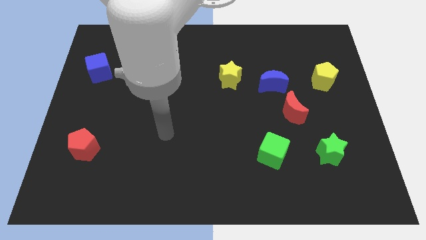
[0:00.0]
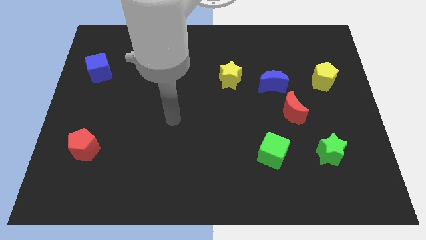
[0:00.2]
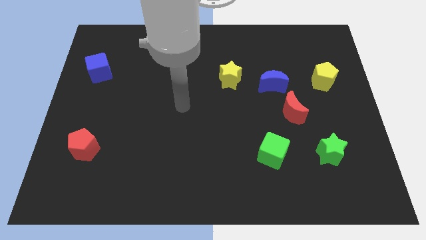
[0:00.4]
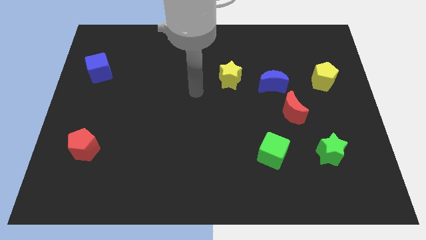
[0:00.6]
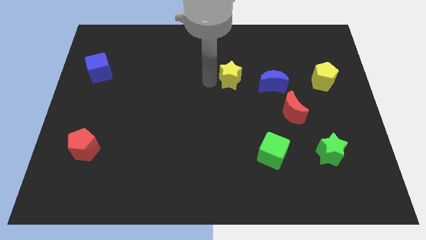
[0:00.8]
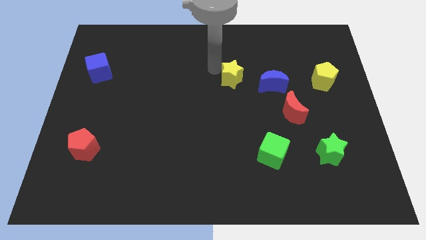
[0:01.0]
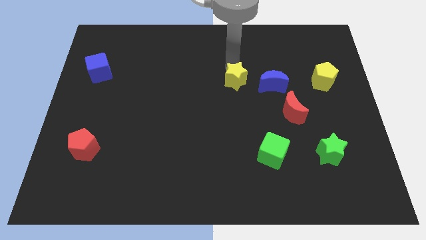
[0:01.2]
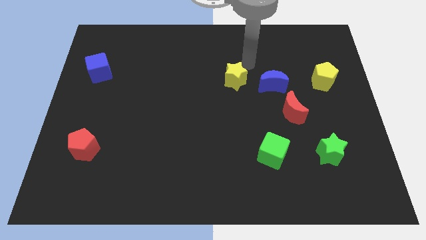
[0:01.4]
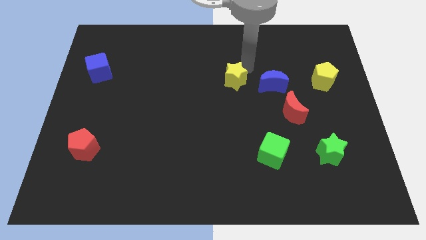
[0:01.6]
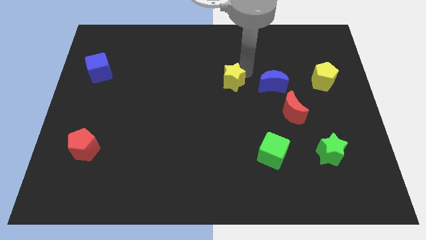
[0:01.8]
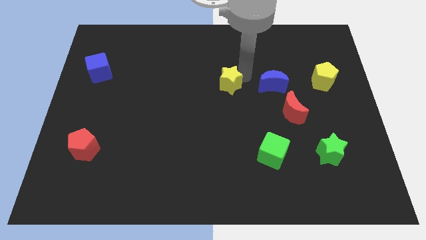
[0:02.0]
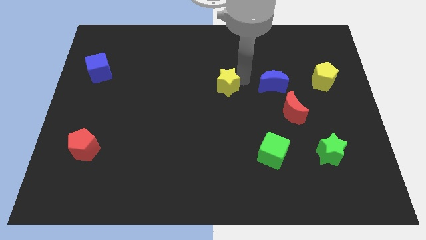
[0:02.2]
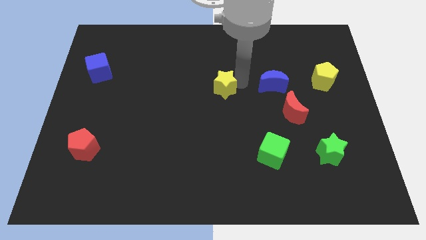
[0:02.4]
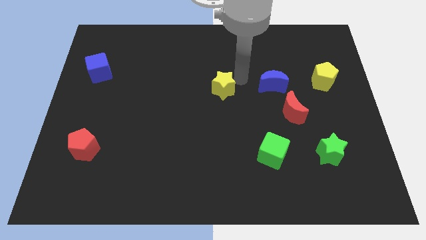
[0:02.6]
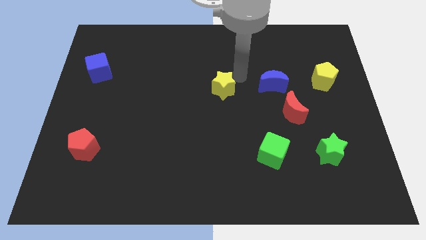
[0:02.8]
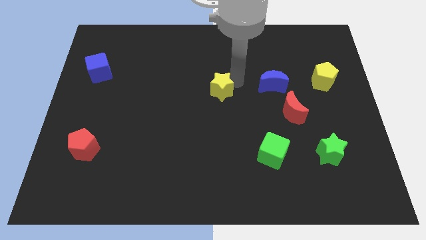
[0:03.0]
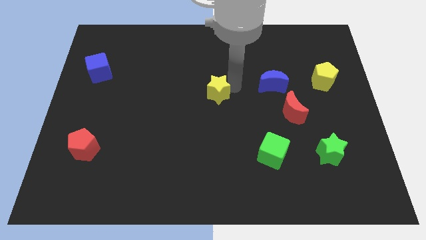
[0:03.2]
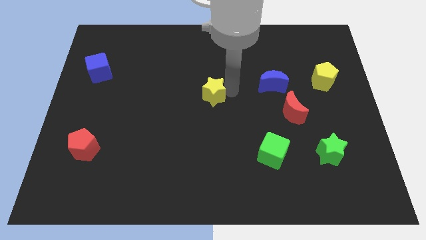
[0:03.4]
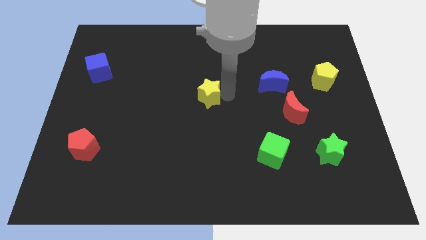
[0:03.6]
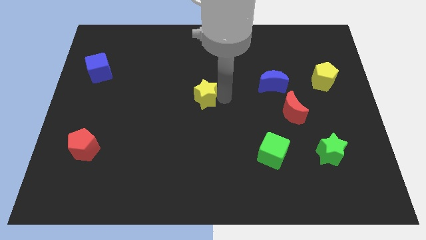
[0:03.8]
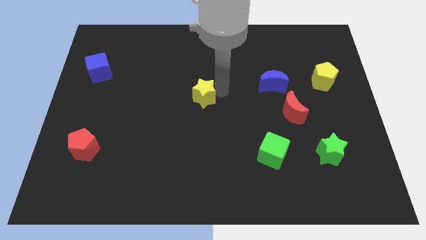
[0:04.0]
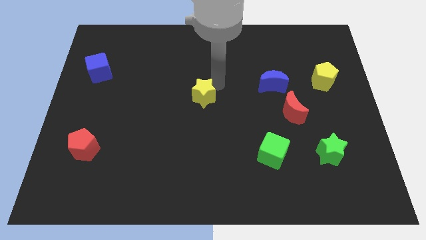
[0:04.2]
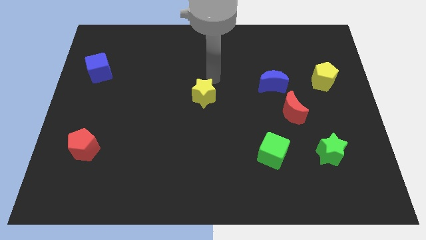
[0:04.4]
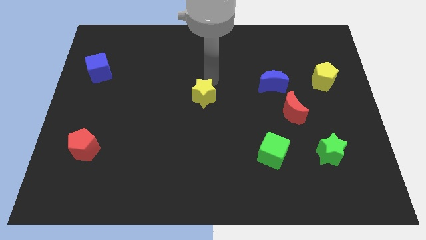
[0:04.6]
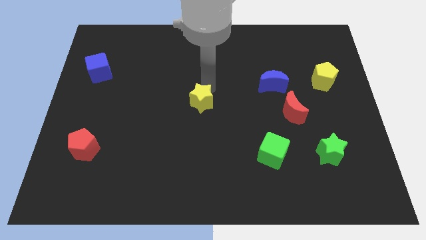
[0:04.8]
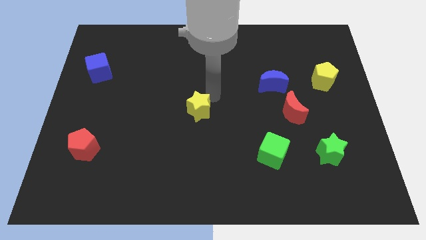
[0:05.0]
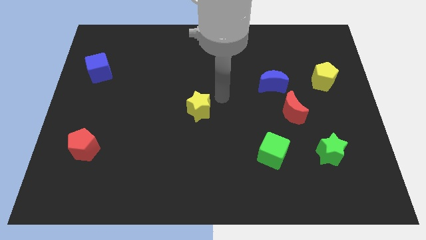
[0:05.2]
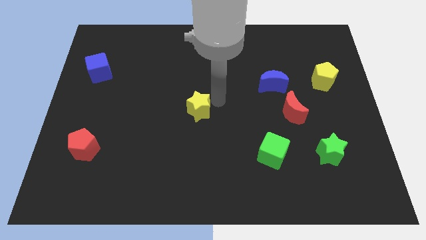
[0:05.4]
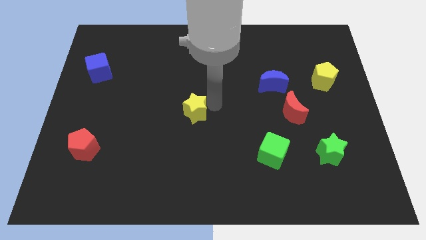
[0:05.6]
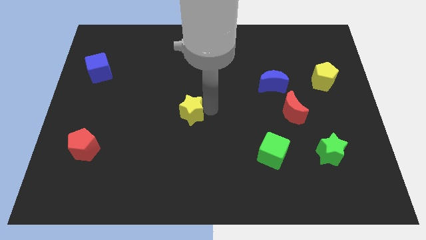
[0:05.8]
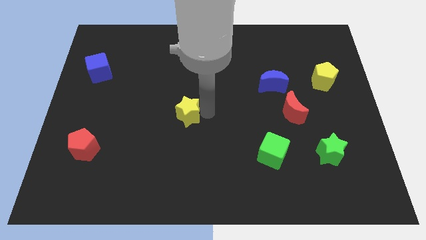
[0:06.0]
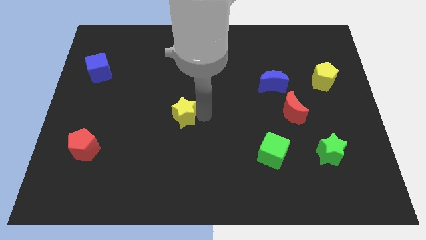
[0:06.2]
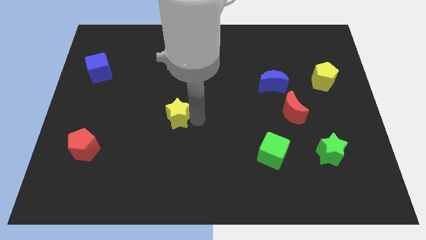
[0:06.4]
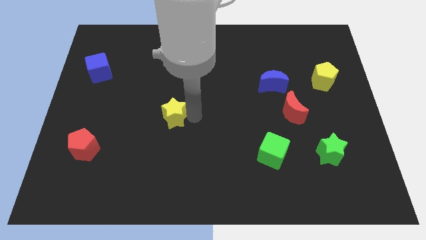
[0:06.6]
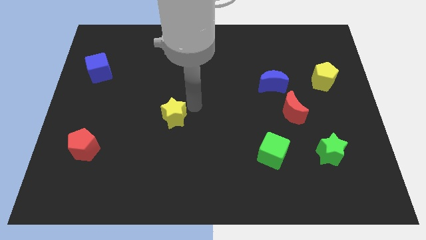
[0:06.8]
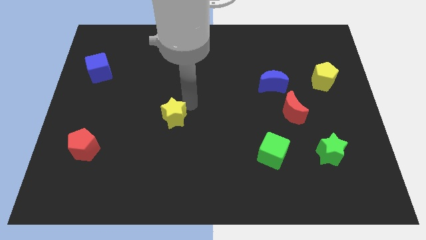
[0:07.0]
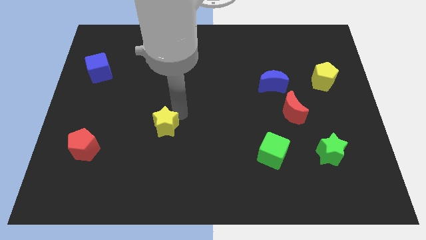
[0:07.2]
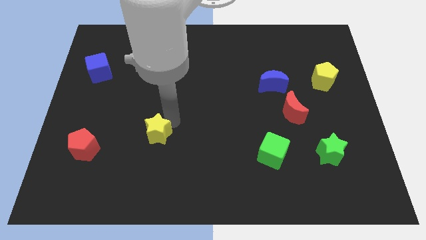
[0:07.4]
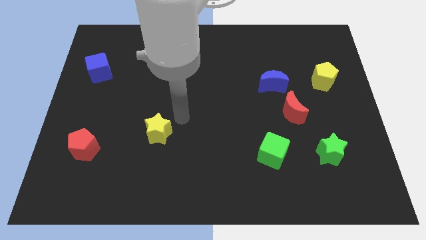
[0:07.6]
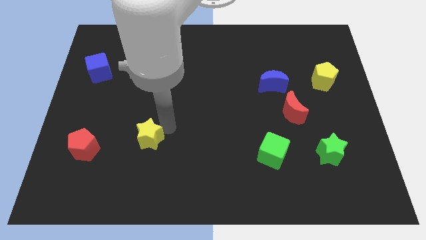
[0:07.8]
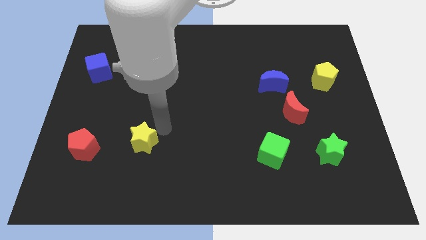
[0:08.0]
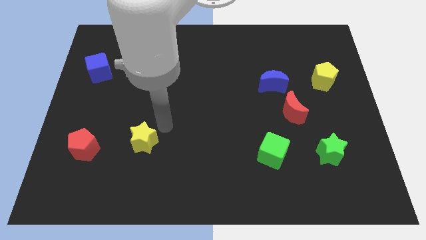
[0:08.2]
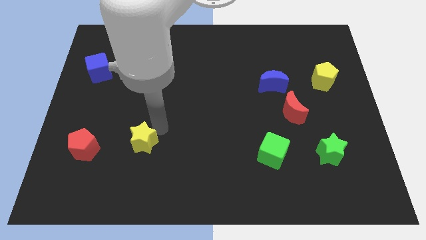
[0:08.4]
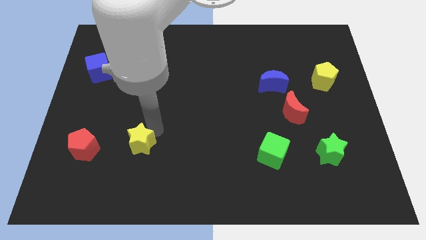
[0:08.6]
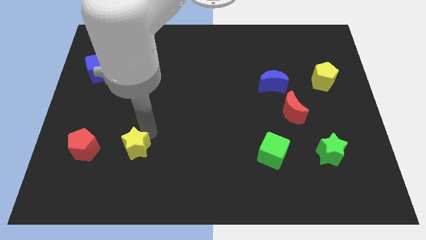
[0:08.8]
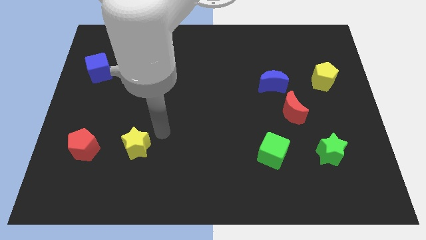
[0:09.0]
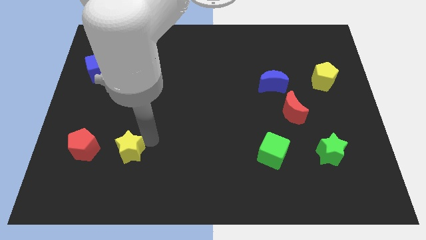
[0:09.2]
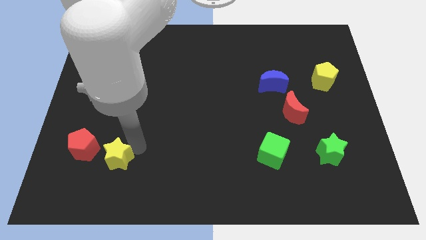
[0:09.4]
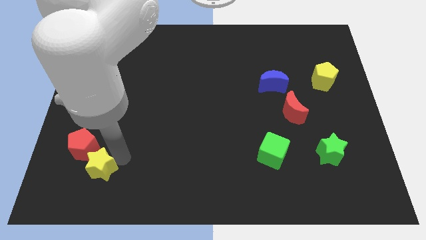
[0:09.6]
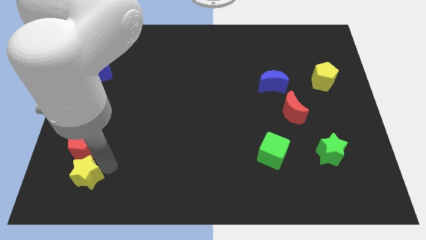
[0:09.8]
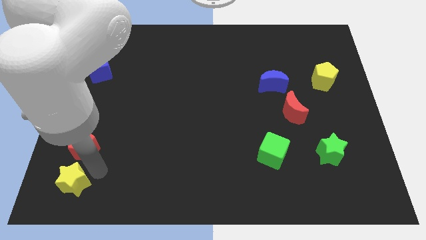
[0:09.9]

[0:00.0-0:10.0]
slide the yellow star to the bottom left

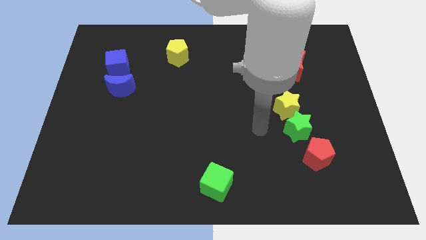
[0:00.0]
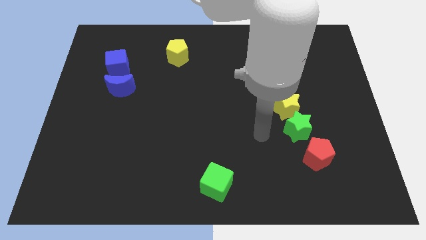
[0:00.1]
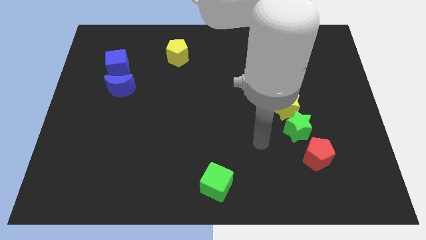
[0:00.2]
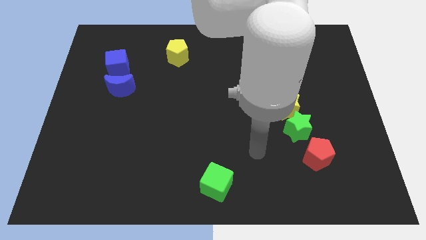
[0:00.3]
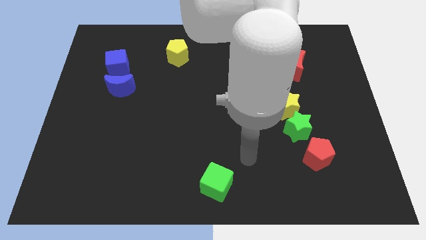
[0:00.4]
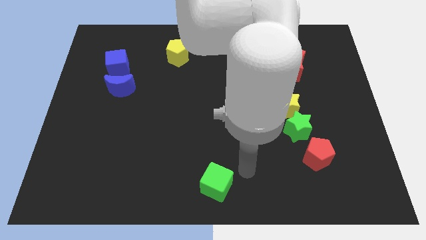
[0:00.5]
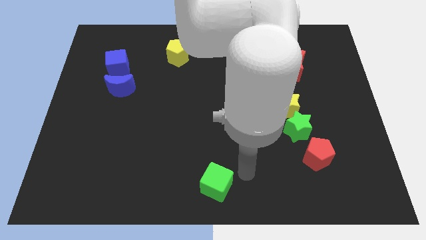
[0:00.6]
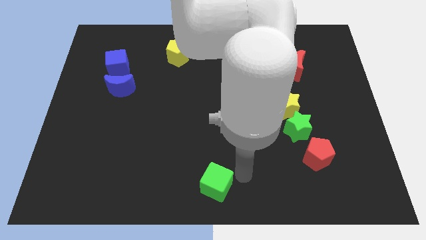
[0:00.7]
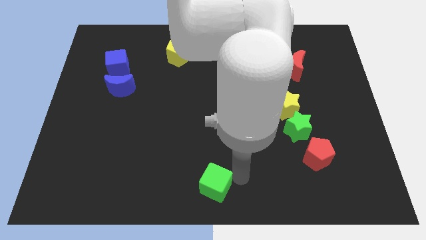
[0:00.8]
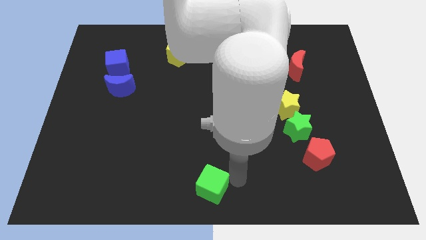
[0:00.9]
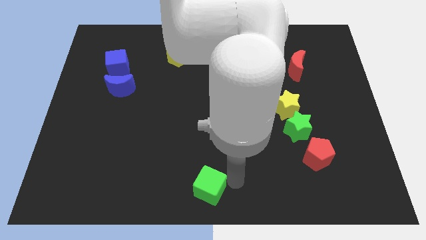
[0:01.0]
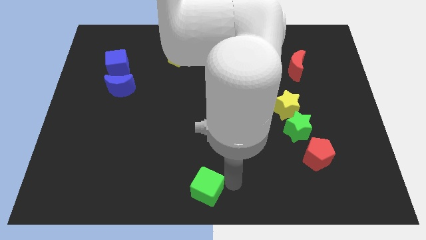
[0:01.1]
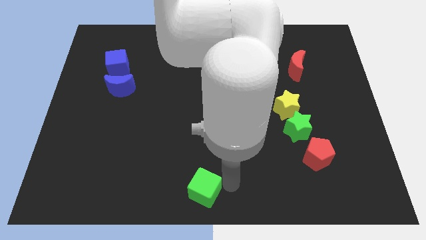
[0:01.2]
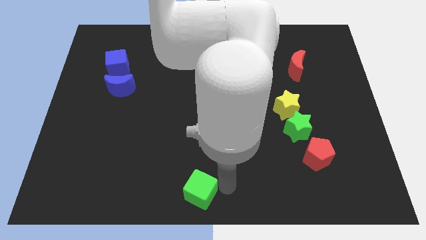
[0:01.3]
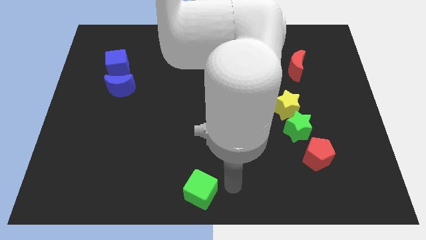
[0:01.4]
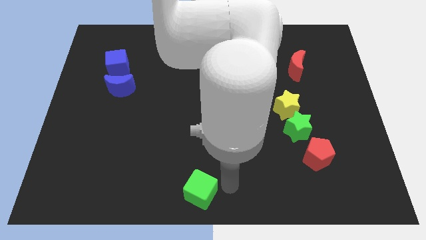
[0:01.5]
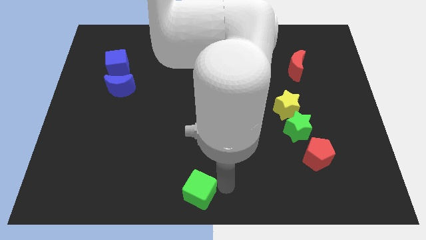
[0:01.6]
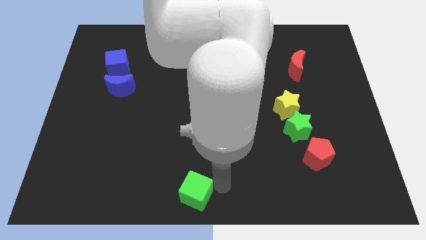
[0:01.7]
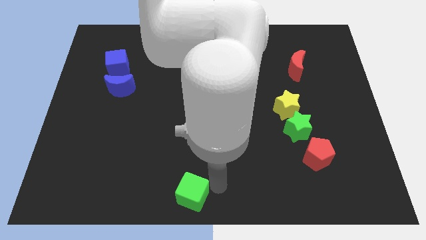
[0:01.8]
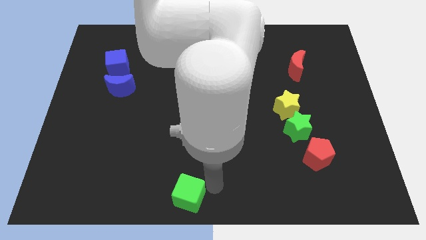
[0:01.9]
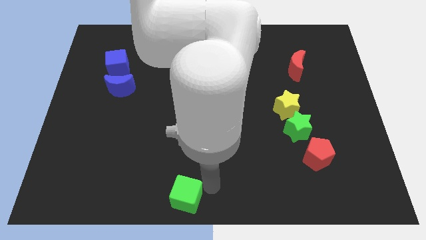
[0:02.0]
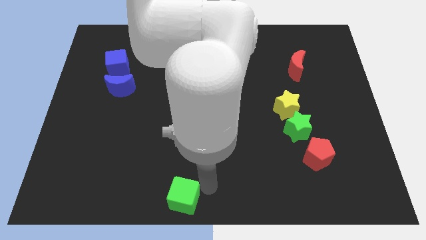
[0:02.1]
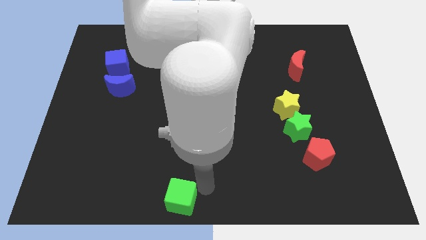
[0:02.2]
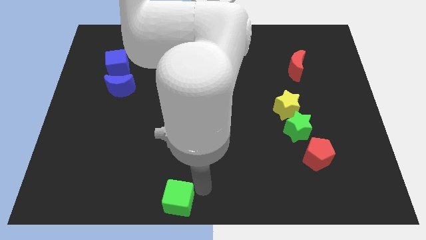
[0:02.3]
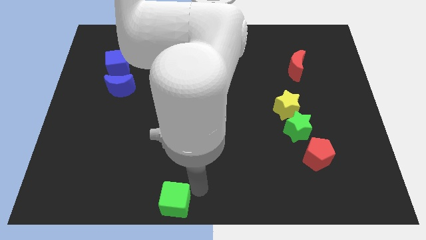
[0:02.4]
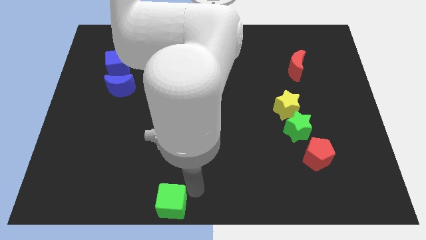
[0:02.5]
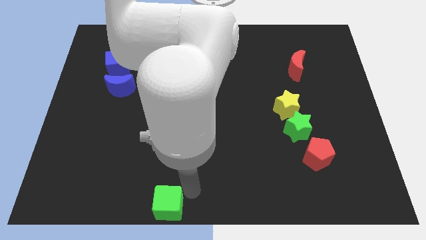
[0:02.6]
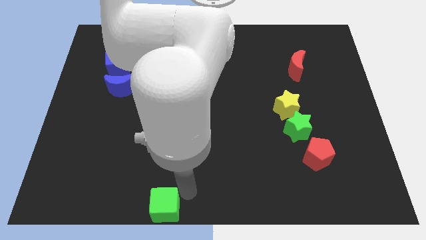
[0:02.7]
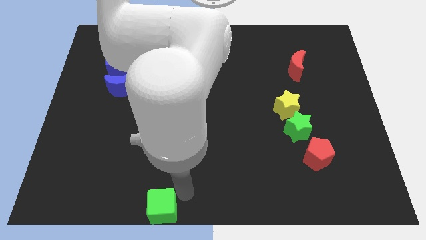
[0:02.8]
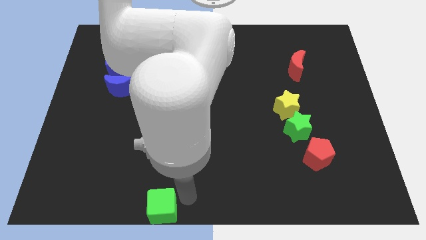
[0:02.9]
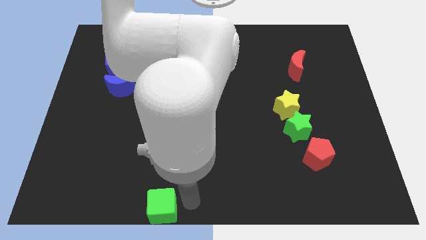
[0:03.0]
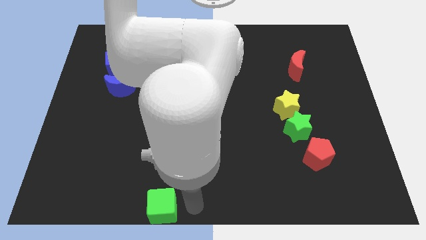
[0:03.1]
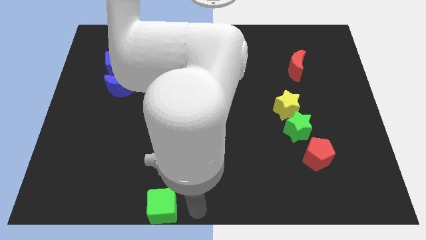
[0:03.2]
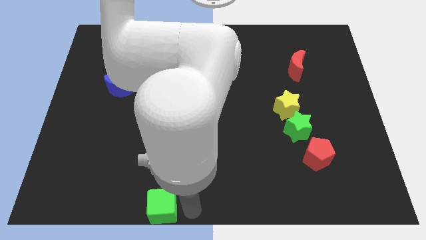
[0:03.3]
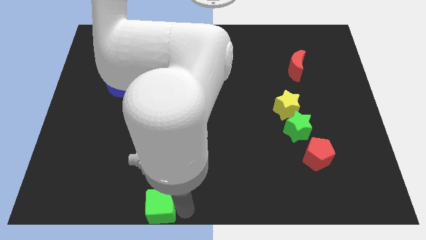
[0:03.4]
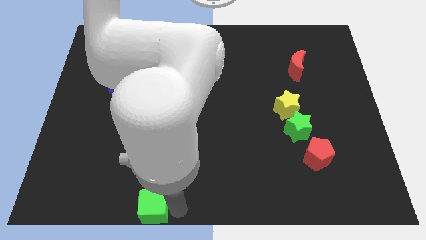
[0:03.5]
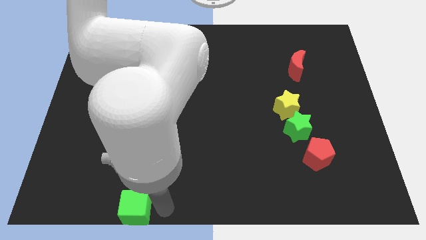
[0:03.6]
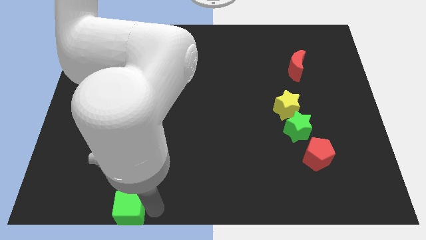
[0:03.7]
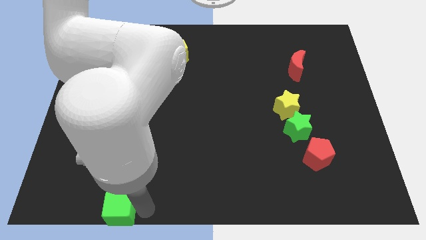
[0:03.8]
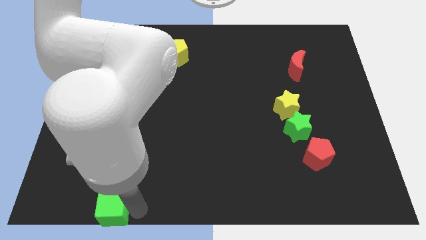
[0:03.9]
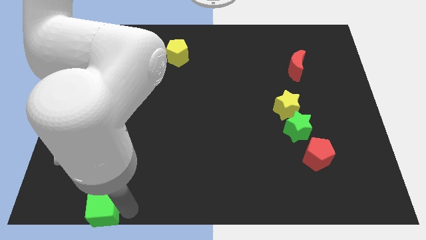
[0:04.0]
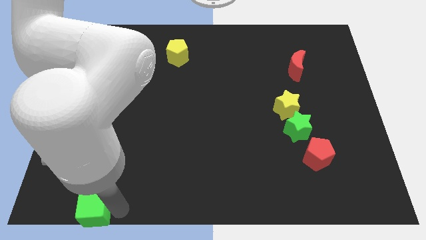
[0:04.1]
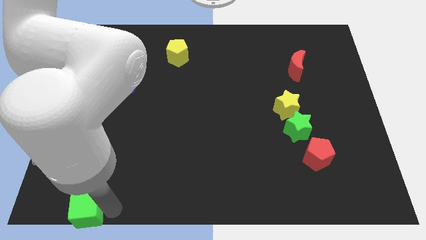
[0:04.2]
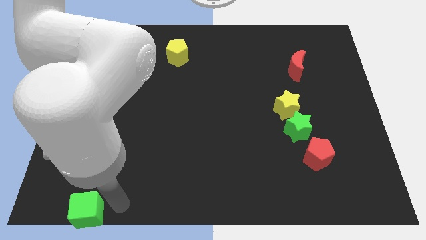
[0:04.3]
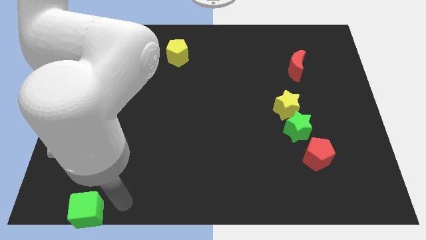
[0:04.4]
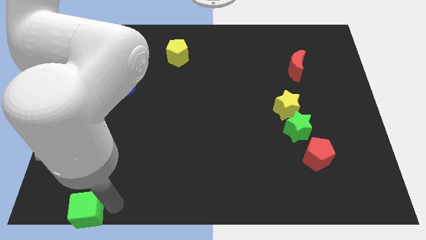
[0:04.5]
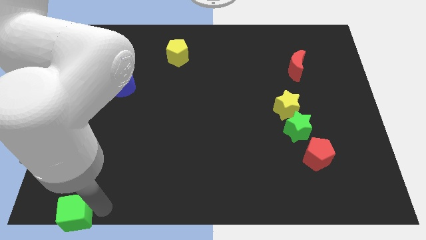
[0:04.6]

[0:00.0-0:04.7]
slide the green cube to the lower left corner
